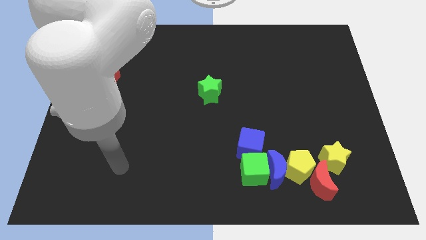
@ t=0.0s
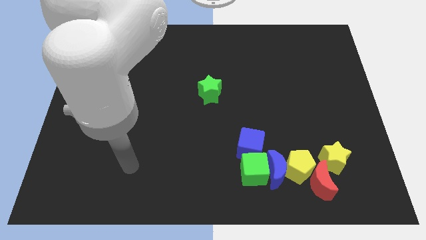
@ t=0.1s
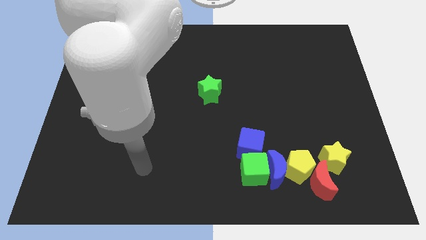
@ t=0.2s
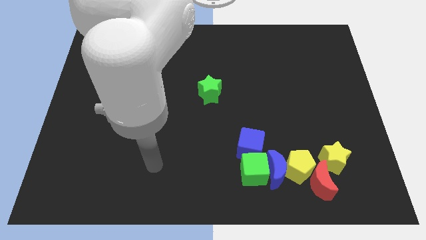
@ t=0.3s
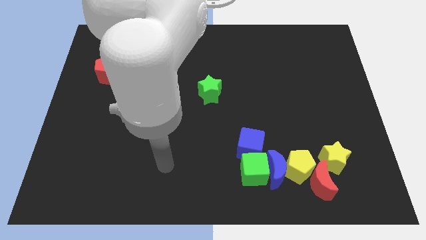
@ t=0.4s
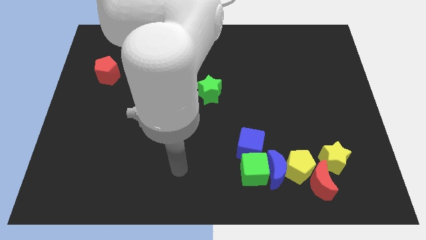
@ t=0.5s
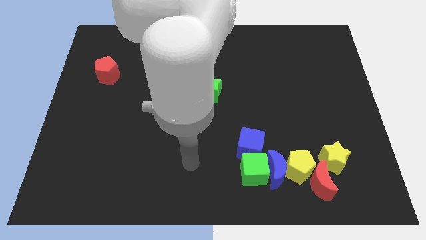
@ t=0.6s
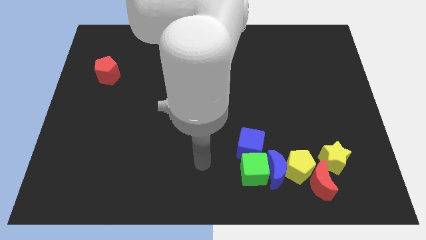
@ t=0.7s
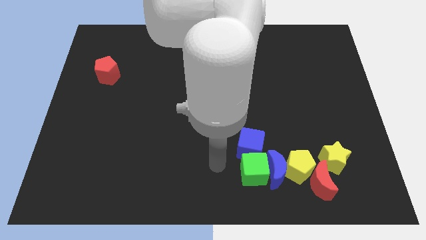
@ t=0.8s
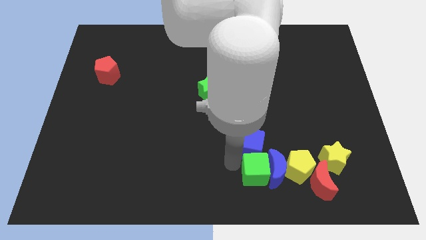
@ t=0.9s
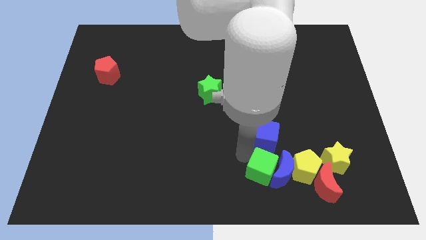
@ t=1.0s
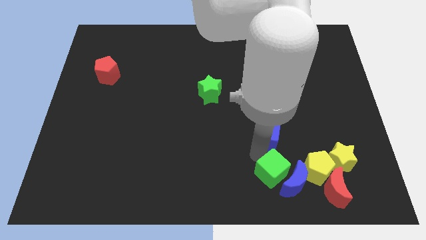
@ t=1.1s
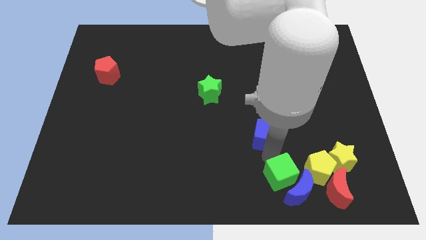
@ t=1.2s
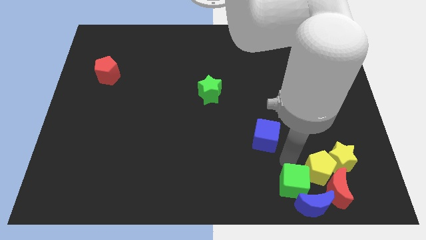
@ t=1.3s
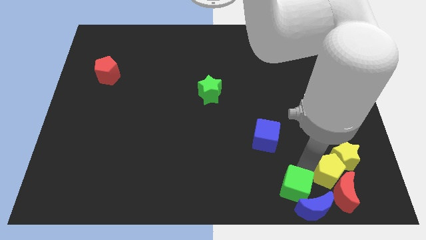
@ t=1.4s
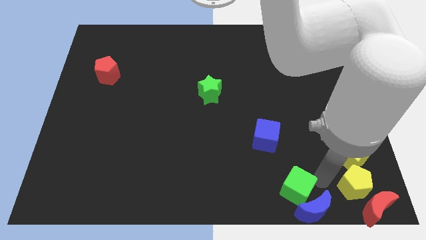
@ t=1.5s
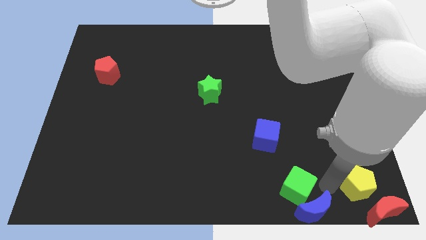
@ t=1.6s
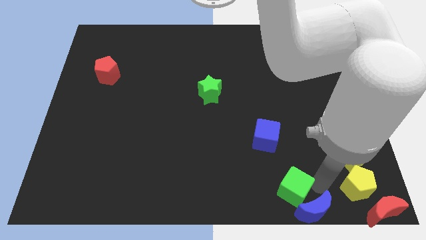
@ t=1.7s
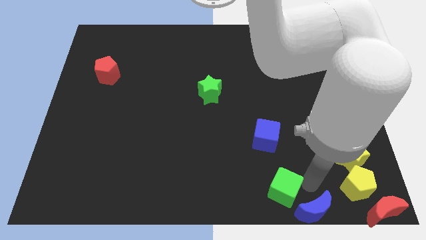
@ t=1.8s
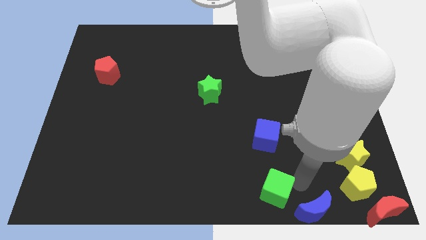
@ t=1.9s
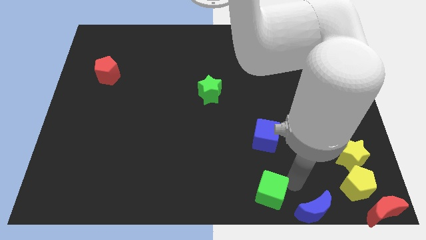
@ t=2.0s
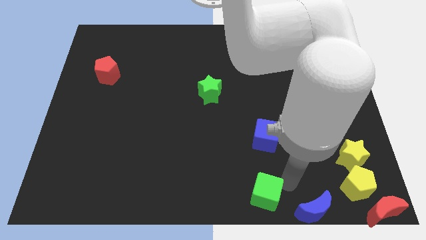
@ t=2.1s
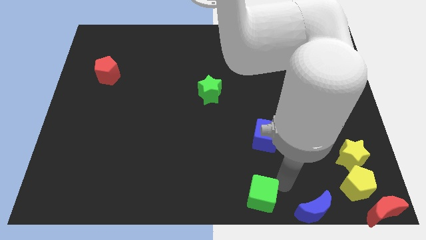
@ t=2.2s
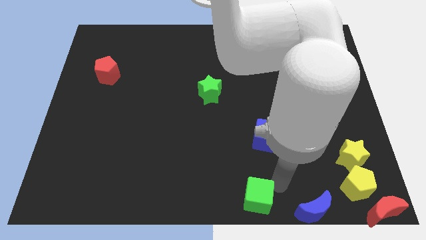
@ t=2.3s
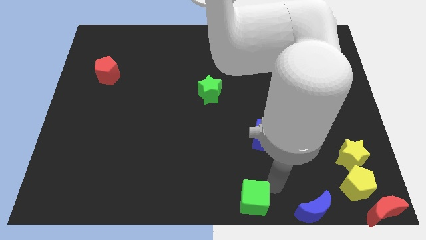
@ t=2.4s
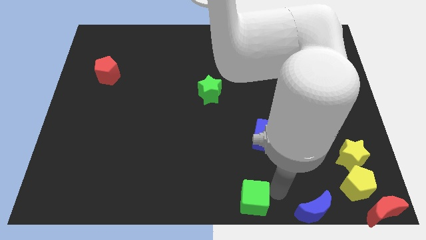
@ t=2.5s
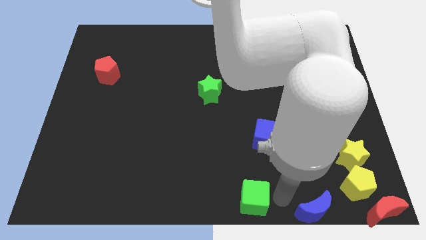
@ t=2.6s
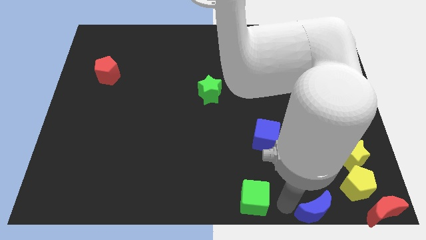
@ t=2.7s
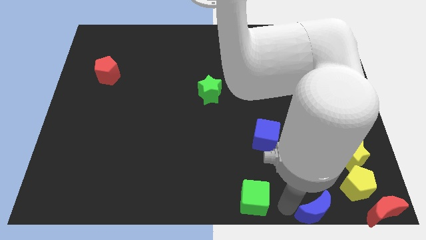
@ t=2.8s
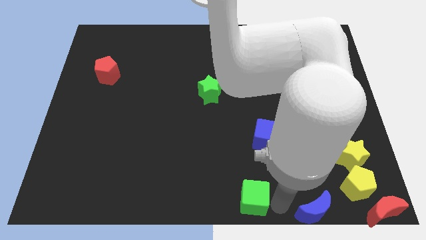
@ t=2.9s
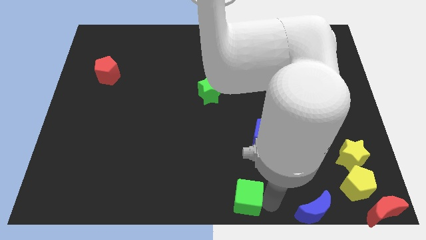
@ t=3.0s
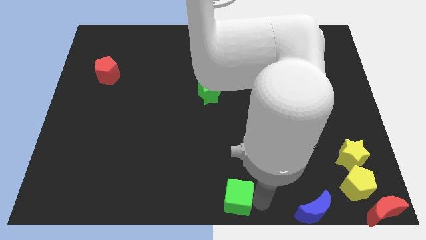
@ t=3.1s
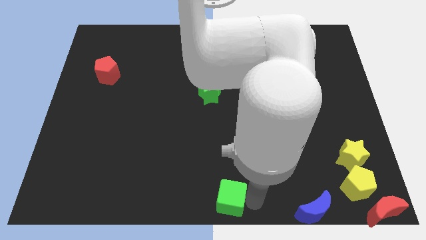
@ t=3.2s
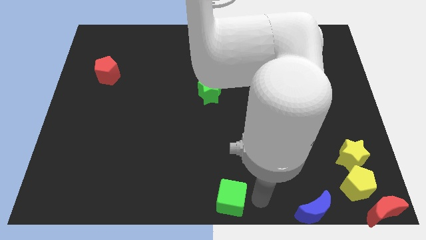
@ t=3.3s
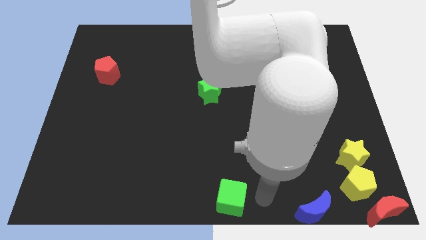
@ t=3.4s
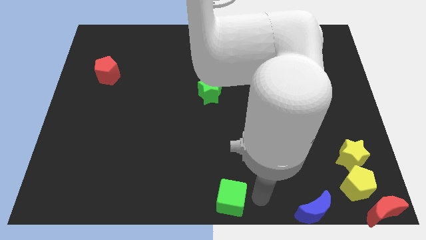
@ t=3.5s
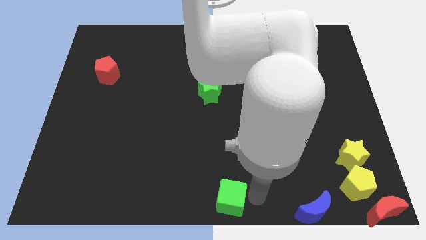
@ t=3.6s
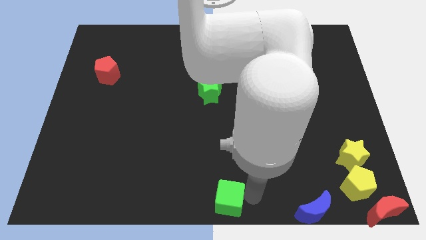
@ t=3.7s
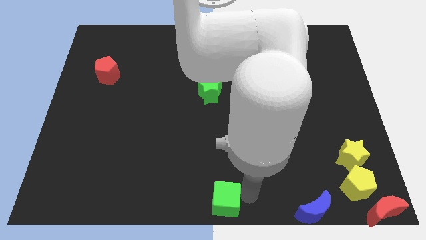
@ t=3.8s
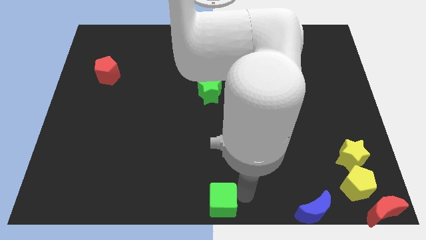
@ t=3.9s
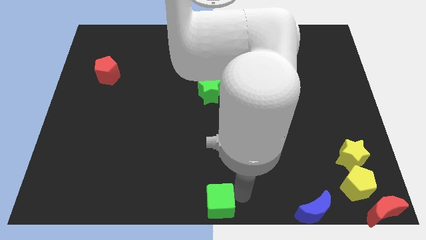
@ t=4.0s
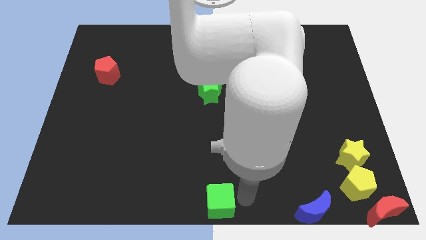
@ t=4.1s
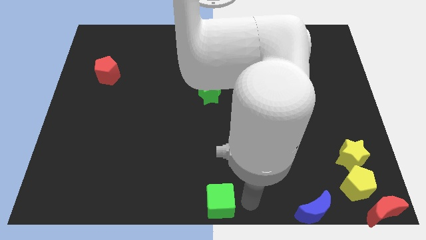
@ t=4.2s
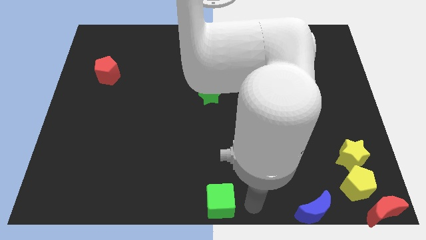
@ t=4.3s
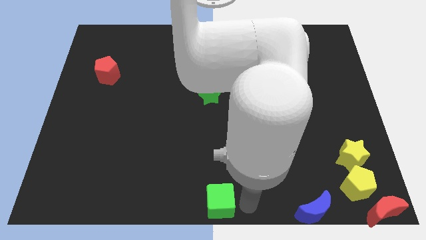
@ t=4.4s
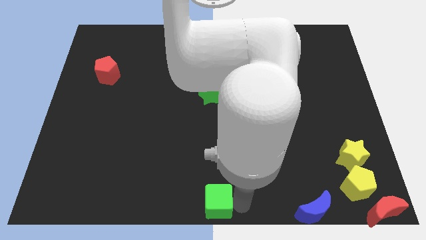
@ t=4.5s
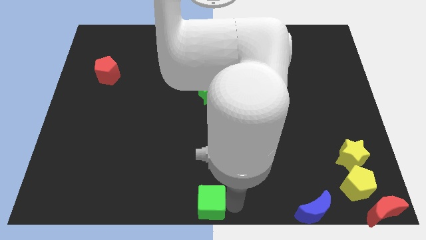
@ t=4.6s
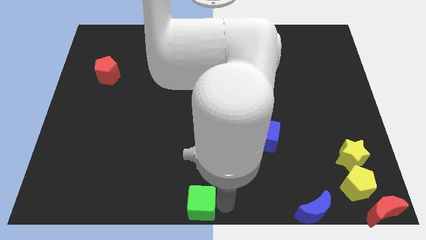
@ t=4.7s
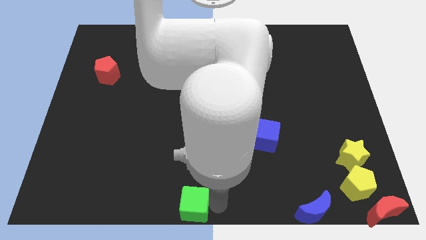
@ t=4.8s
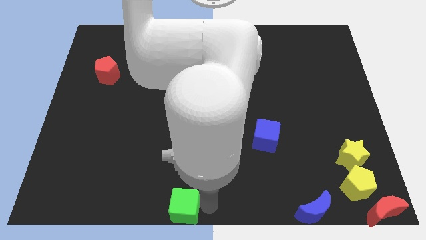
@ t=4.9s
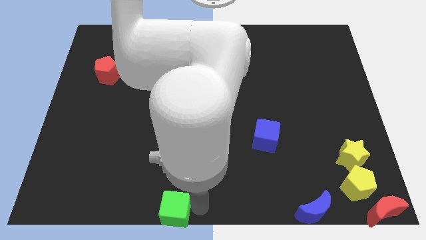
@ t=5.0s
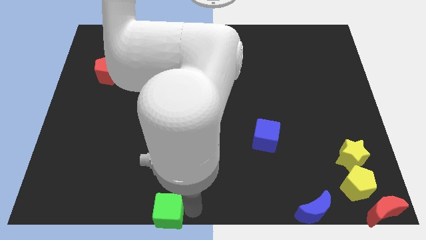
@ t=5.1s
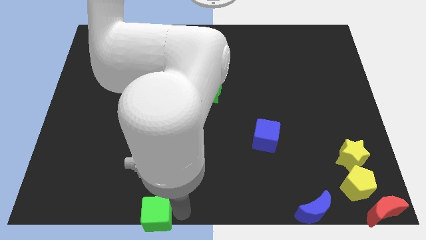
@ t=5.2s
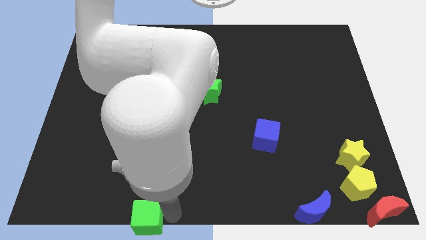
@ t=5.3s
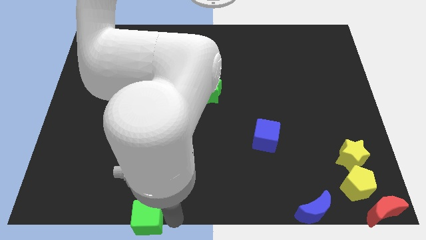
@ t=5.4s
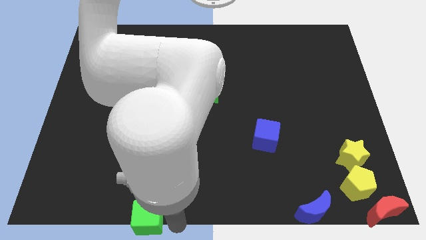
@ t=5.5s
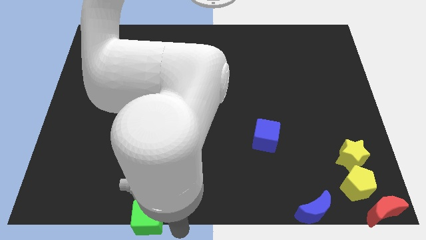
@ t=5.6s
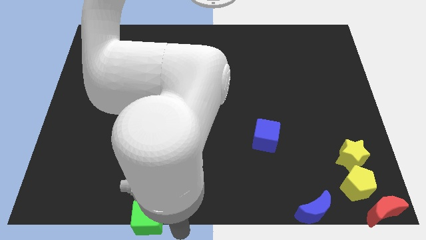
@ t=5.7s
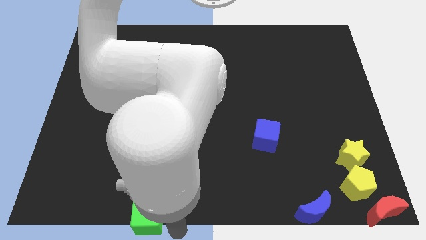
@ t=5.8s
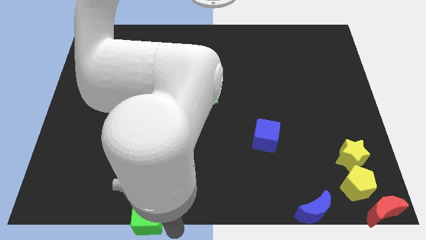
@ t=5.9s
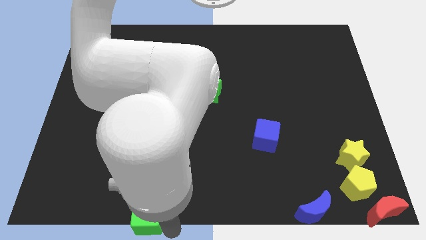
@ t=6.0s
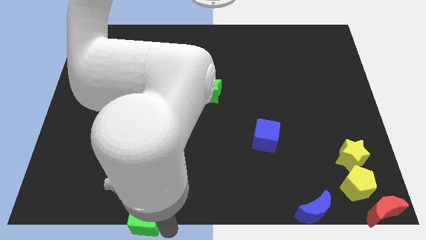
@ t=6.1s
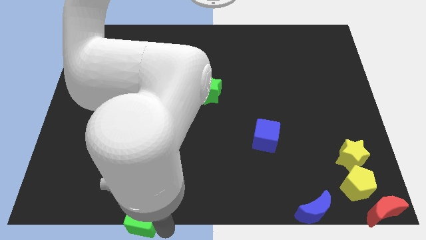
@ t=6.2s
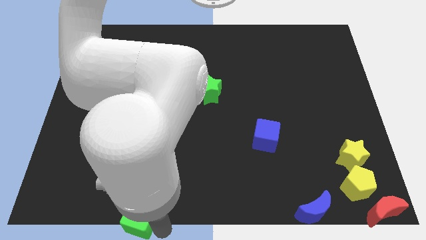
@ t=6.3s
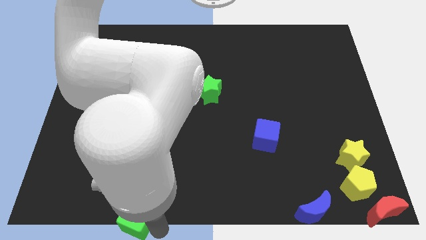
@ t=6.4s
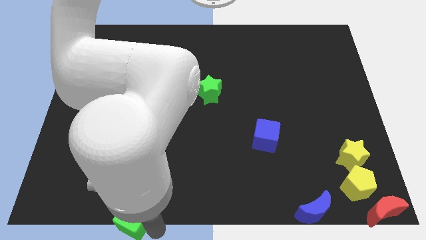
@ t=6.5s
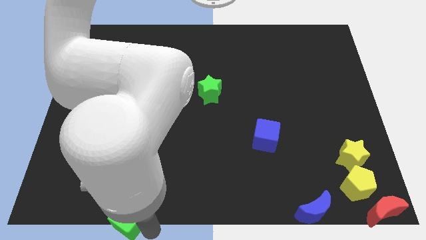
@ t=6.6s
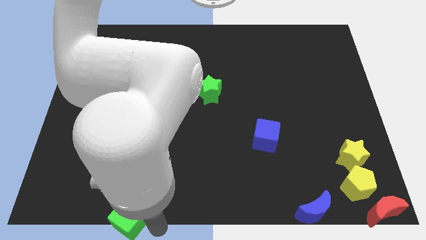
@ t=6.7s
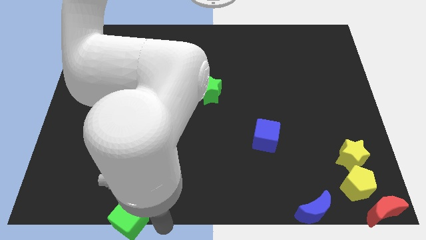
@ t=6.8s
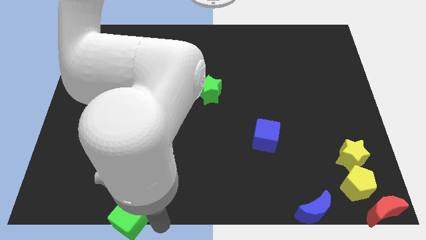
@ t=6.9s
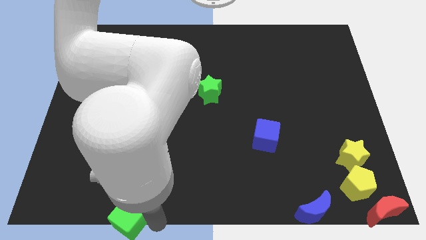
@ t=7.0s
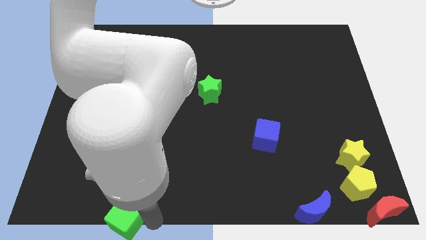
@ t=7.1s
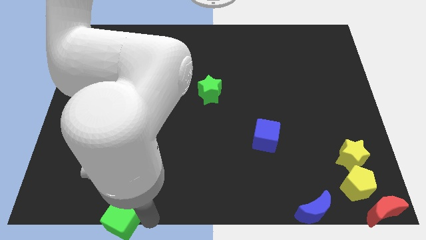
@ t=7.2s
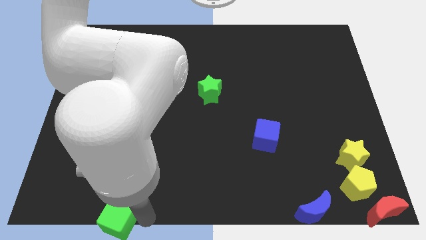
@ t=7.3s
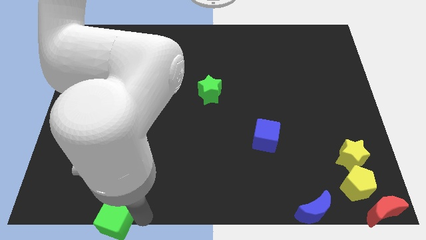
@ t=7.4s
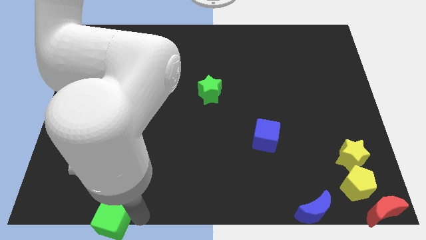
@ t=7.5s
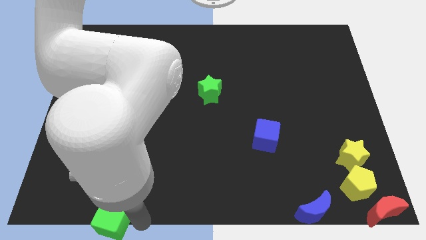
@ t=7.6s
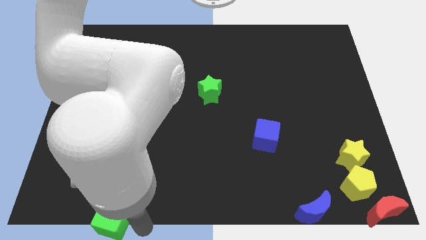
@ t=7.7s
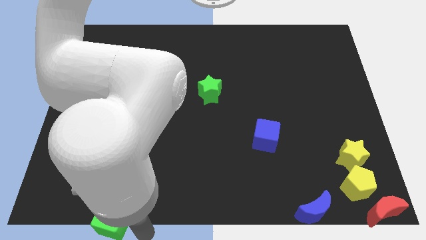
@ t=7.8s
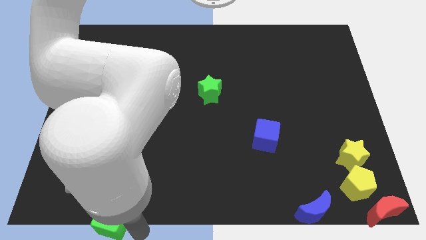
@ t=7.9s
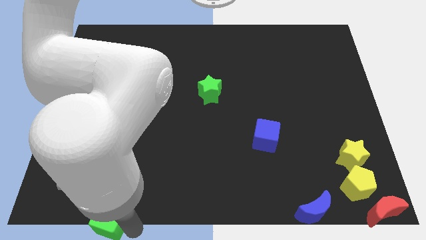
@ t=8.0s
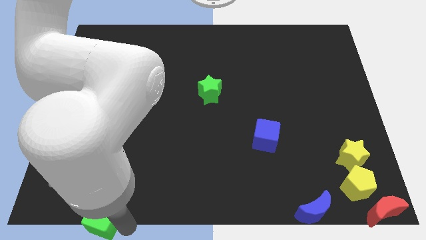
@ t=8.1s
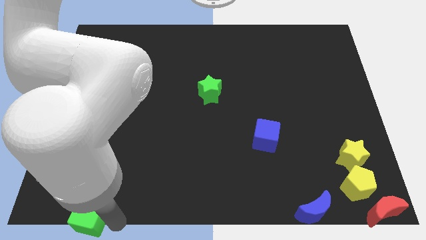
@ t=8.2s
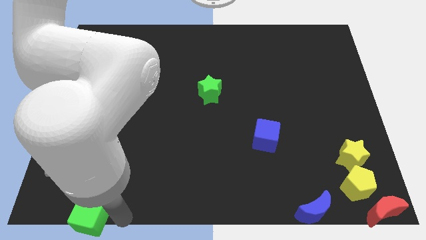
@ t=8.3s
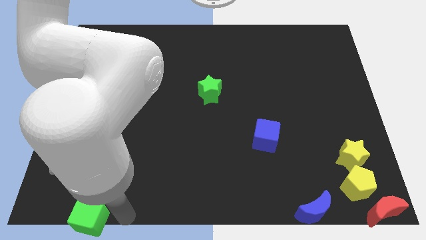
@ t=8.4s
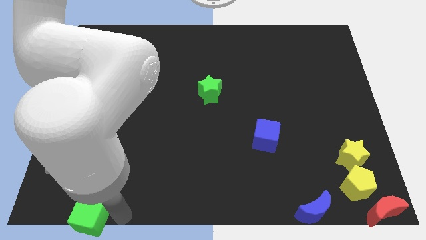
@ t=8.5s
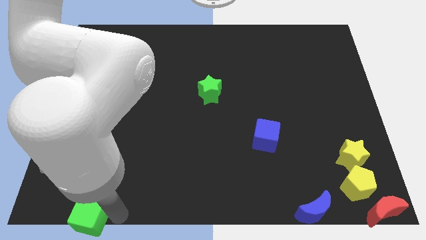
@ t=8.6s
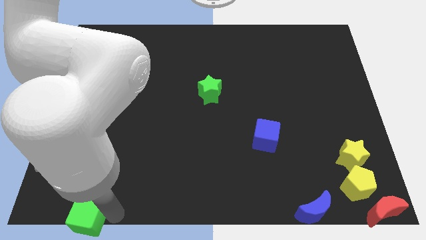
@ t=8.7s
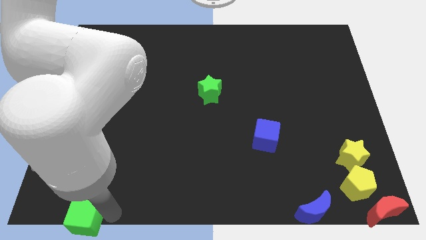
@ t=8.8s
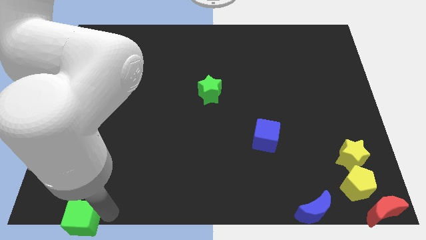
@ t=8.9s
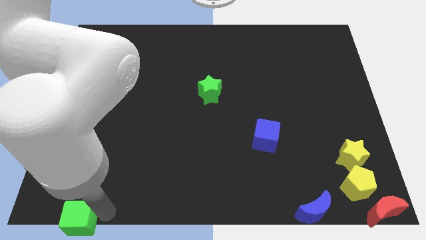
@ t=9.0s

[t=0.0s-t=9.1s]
push the green cube to the bottom left corner
